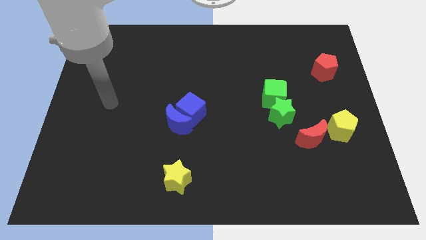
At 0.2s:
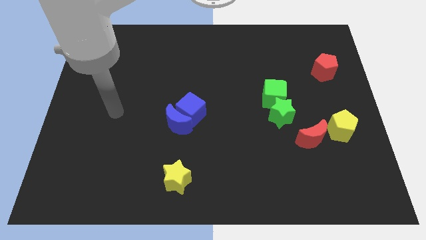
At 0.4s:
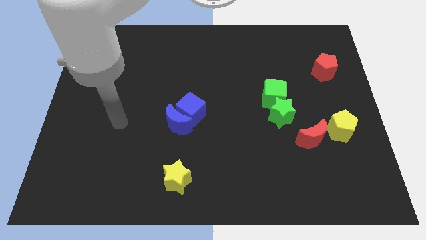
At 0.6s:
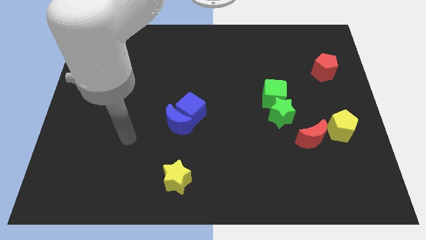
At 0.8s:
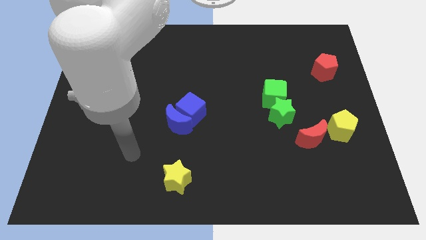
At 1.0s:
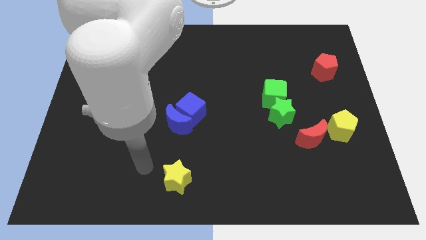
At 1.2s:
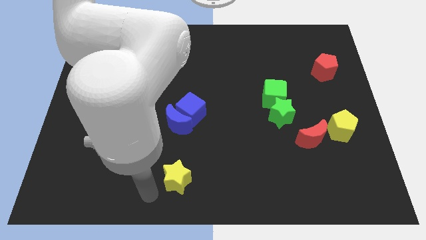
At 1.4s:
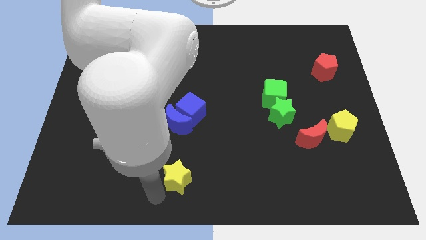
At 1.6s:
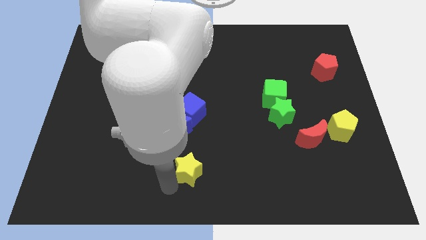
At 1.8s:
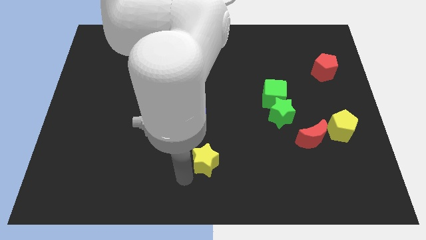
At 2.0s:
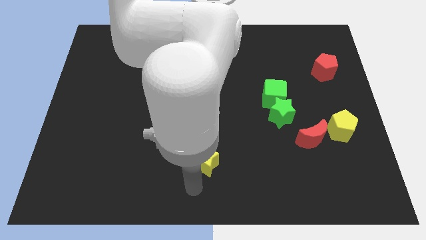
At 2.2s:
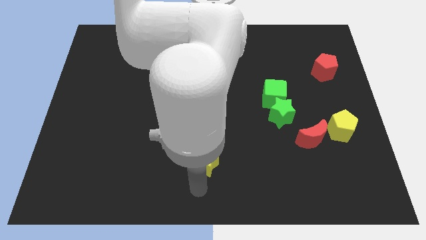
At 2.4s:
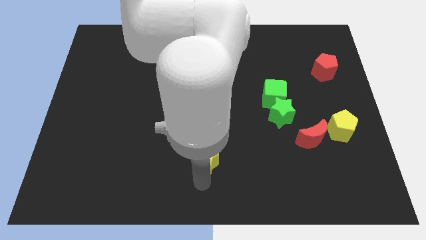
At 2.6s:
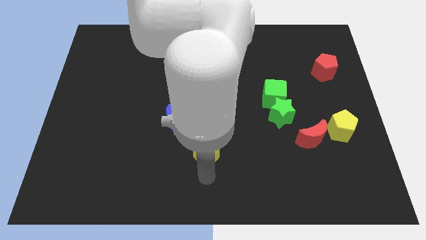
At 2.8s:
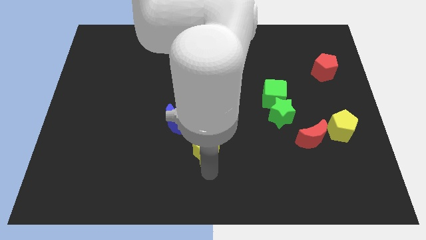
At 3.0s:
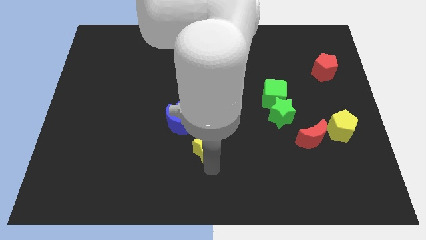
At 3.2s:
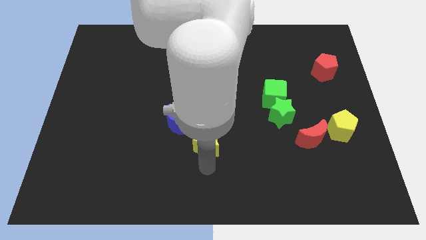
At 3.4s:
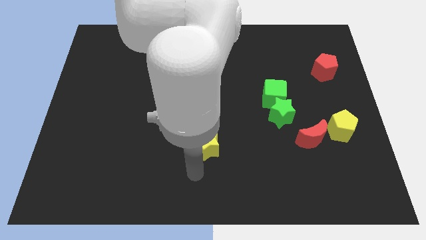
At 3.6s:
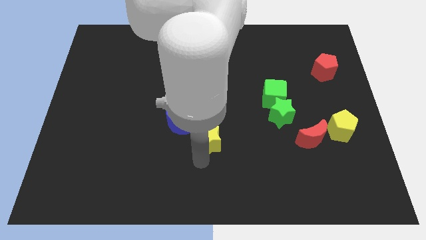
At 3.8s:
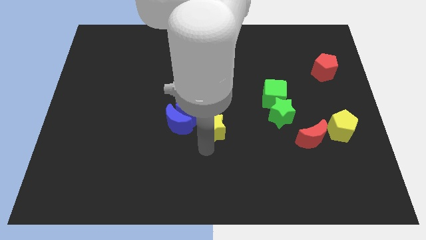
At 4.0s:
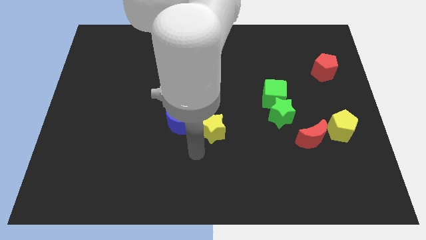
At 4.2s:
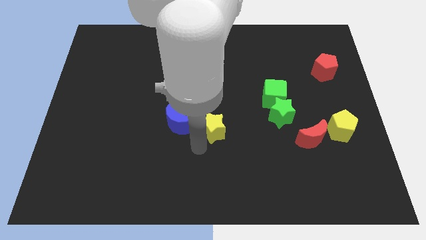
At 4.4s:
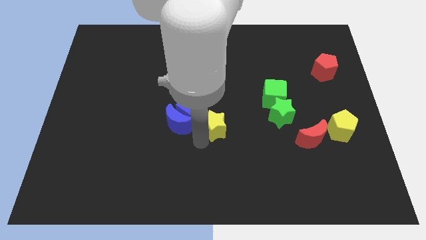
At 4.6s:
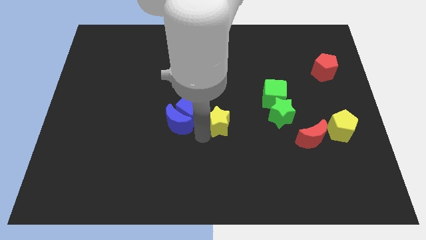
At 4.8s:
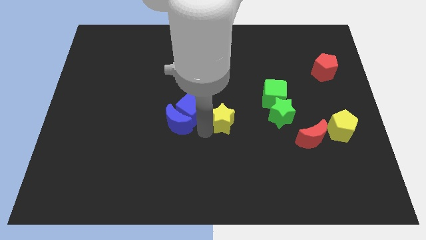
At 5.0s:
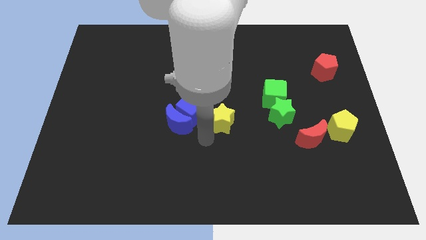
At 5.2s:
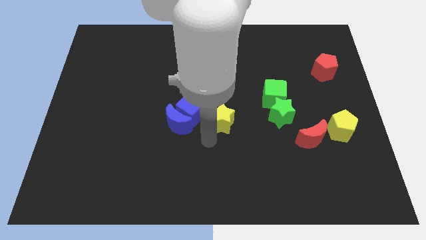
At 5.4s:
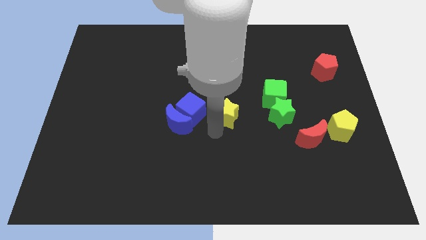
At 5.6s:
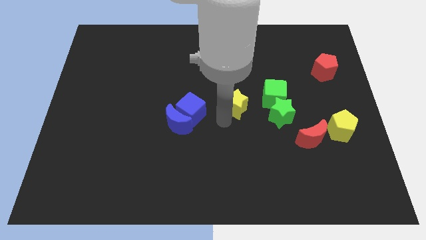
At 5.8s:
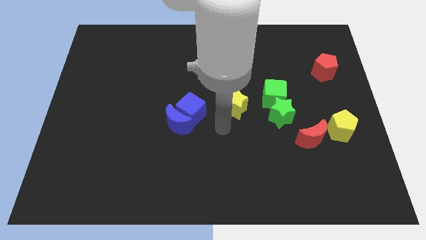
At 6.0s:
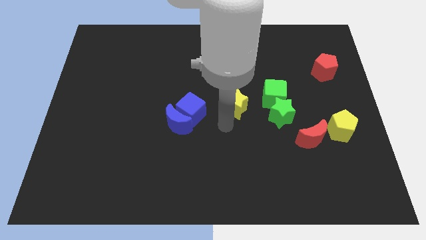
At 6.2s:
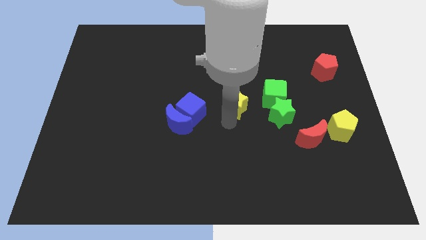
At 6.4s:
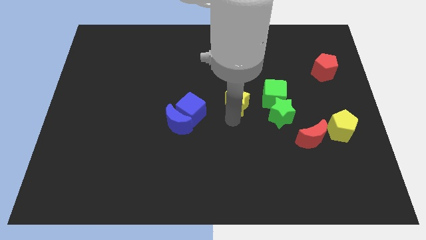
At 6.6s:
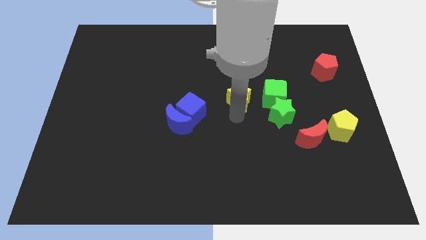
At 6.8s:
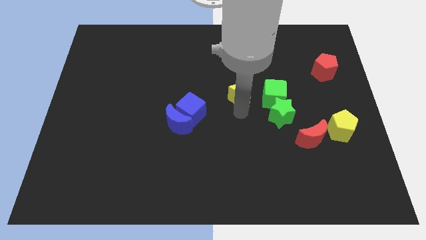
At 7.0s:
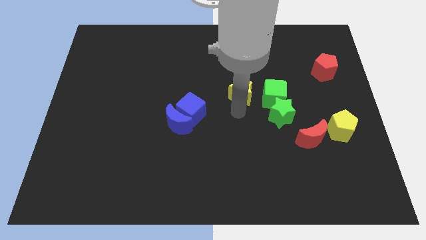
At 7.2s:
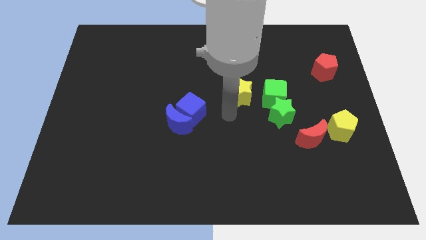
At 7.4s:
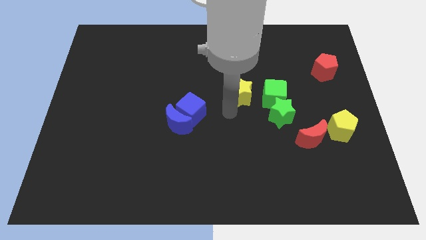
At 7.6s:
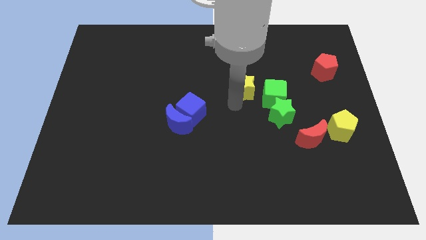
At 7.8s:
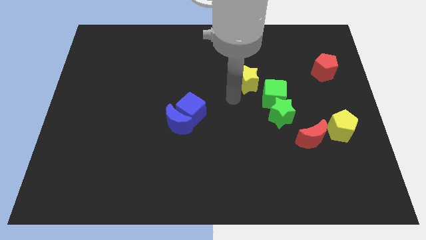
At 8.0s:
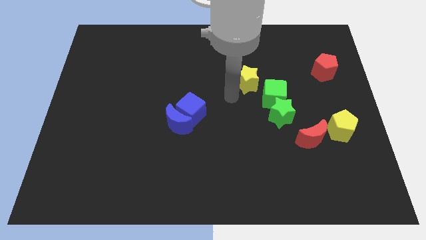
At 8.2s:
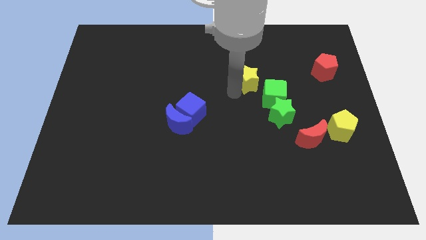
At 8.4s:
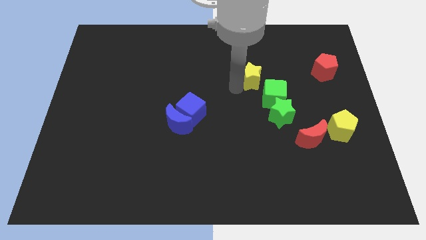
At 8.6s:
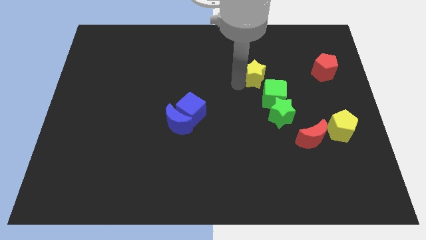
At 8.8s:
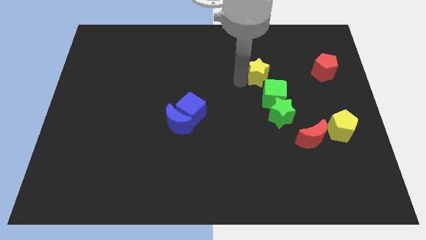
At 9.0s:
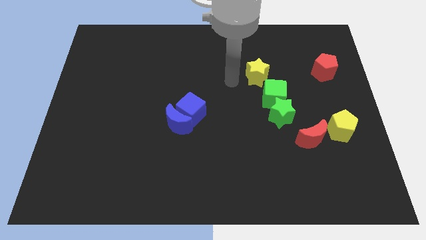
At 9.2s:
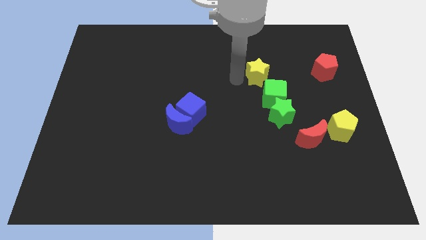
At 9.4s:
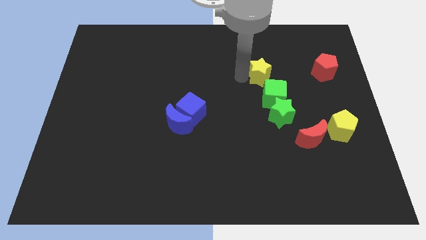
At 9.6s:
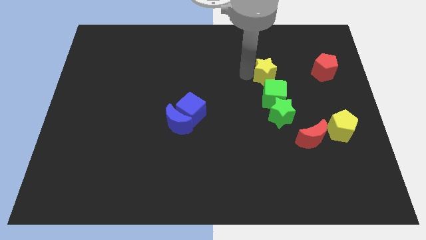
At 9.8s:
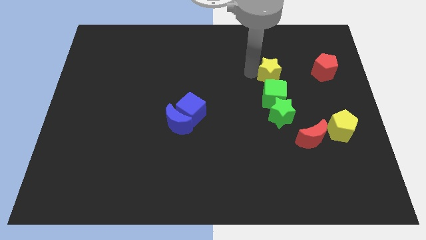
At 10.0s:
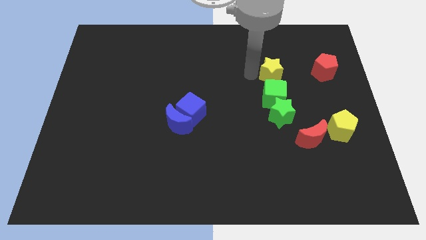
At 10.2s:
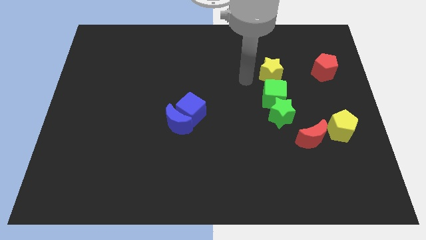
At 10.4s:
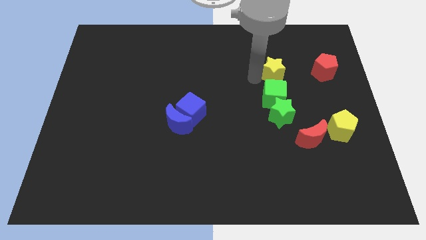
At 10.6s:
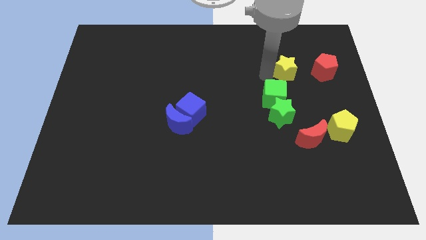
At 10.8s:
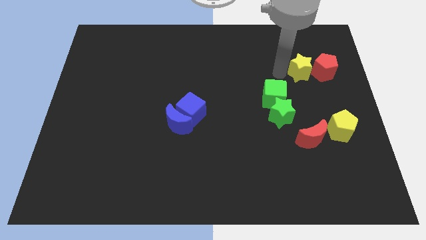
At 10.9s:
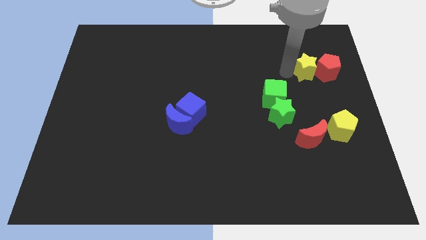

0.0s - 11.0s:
push the yellow star to the red pentagon

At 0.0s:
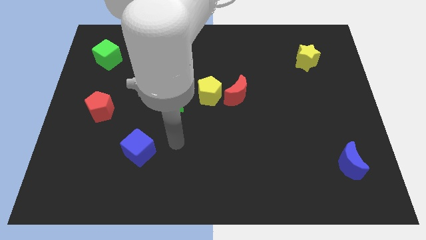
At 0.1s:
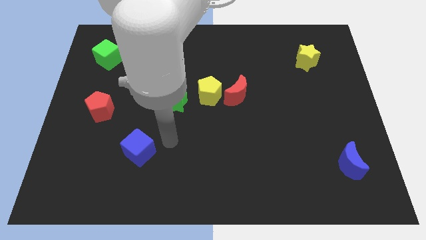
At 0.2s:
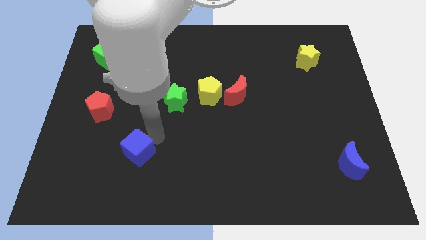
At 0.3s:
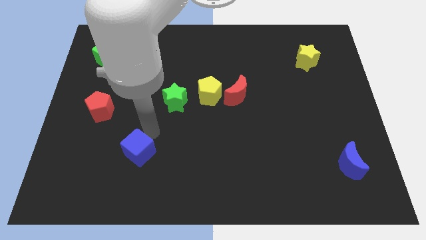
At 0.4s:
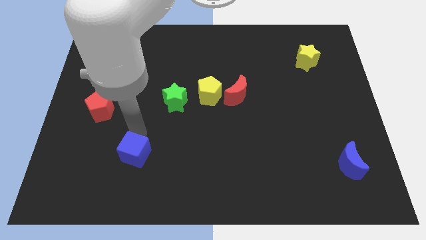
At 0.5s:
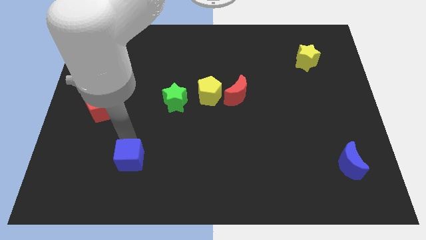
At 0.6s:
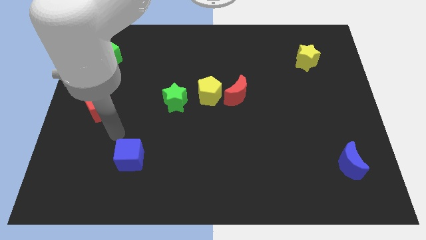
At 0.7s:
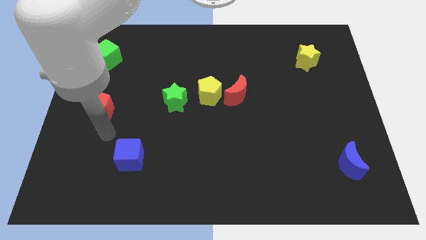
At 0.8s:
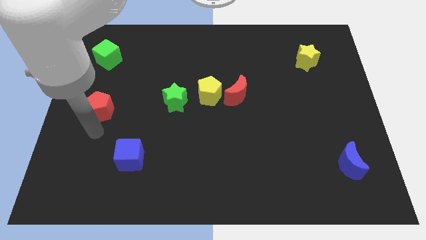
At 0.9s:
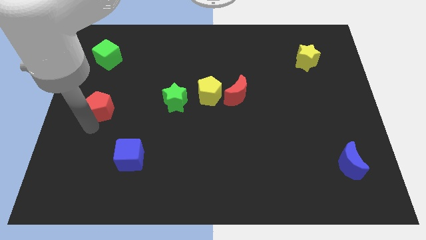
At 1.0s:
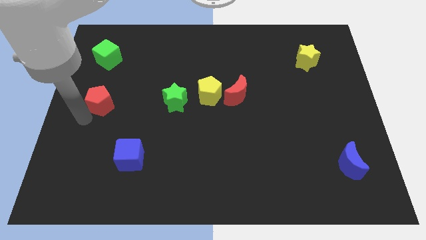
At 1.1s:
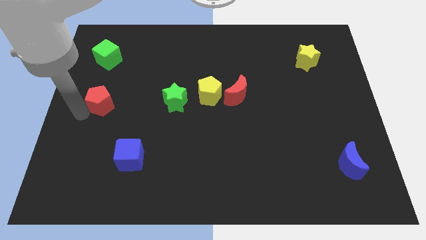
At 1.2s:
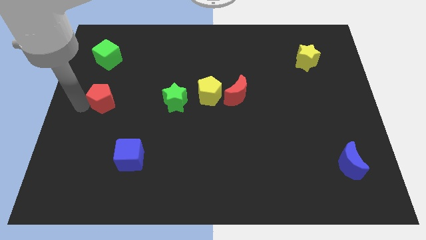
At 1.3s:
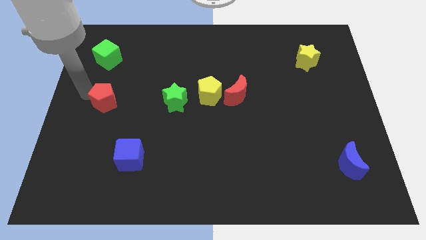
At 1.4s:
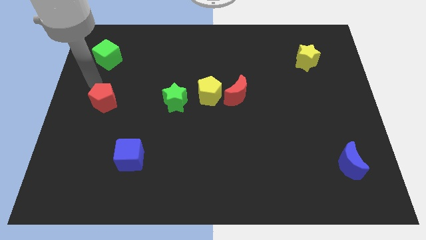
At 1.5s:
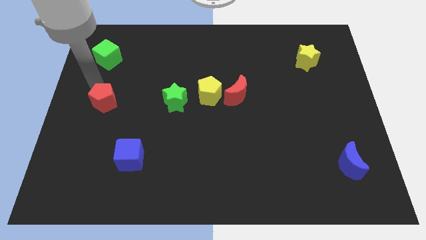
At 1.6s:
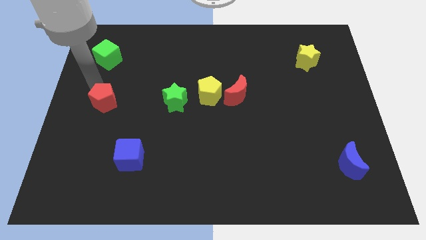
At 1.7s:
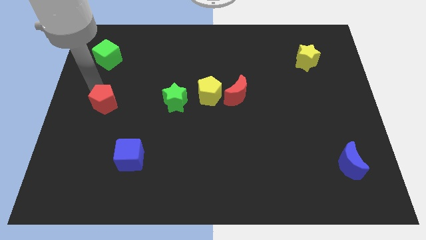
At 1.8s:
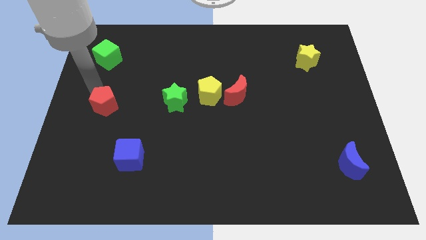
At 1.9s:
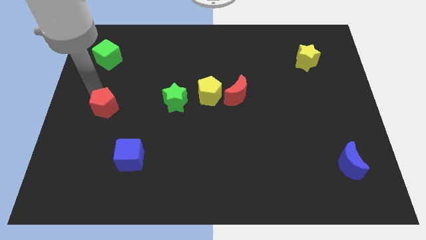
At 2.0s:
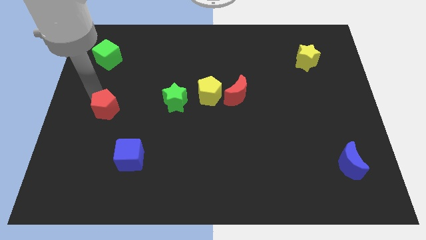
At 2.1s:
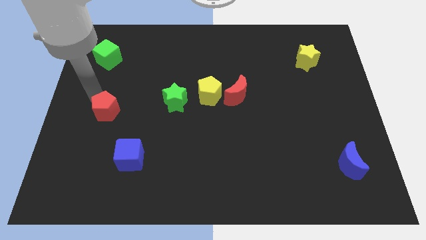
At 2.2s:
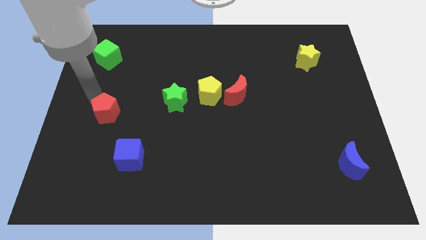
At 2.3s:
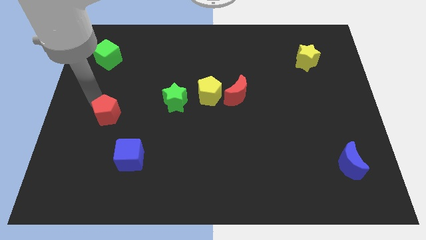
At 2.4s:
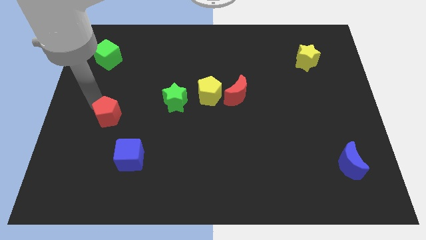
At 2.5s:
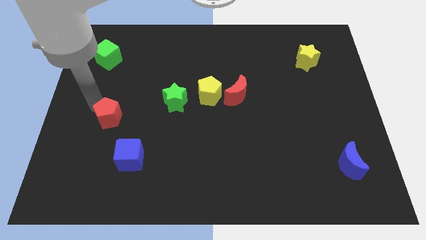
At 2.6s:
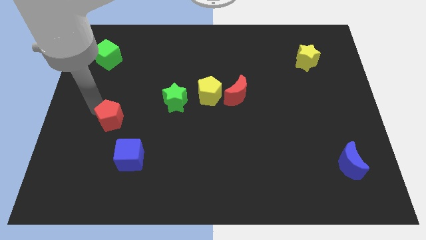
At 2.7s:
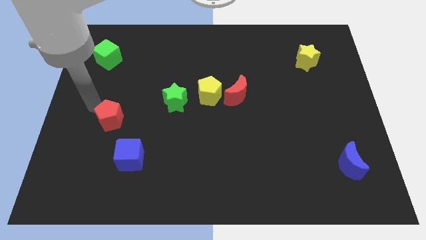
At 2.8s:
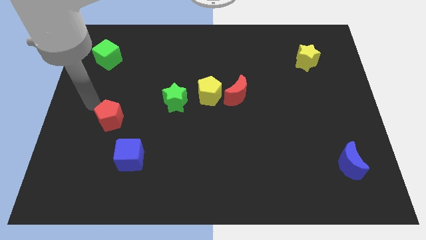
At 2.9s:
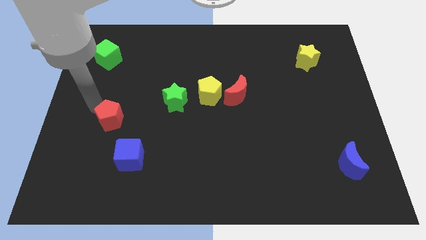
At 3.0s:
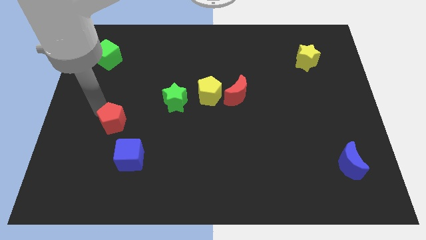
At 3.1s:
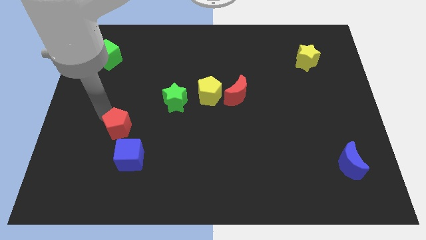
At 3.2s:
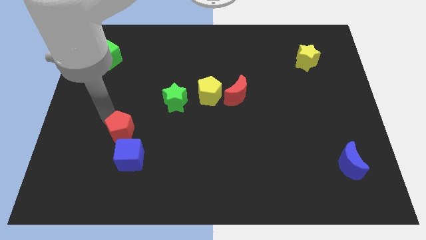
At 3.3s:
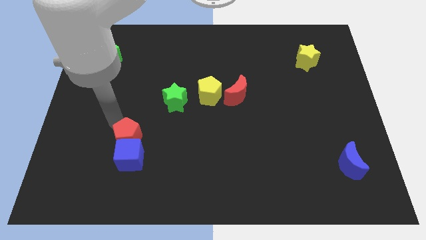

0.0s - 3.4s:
slide the red pentagon next to the blue cube
